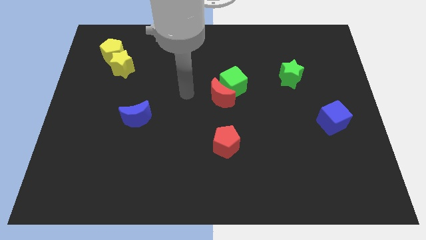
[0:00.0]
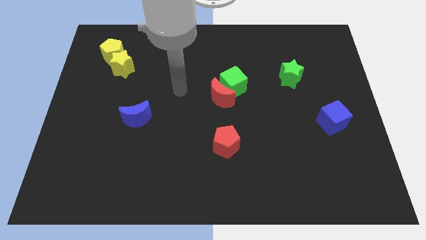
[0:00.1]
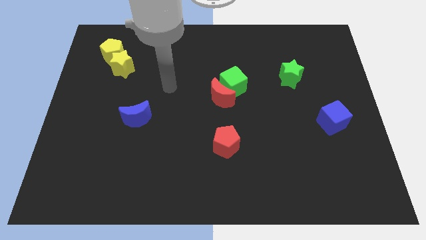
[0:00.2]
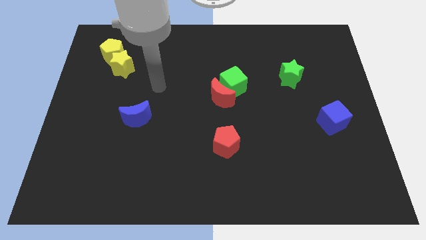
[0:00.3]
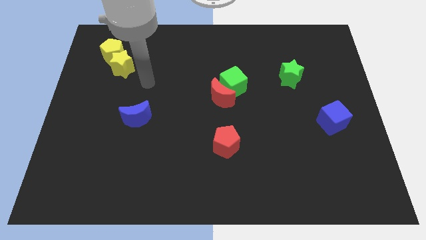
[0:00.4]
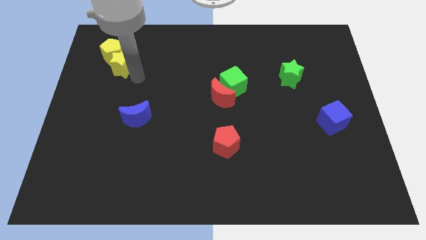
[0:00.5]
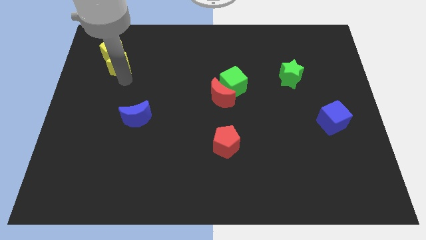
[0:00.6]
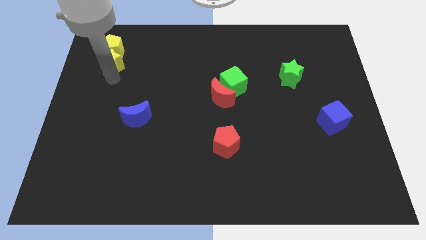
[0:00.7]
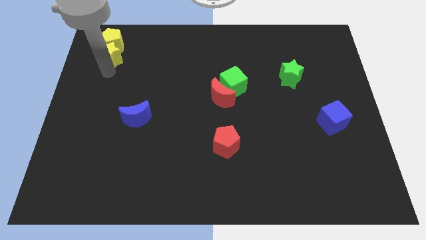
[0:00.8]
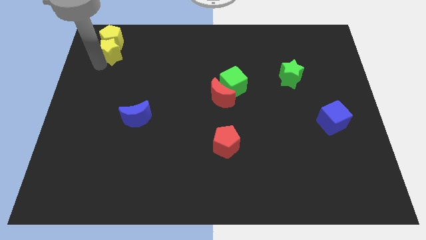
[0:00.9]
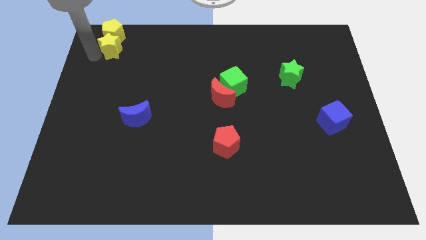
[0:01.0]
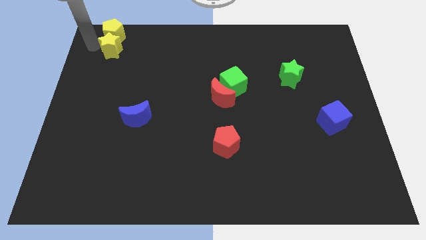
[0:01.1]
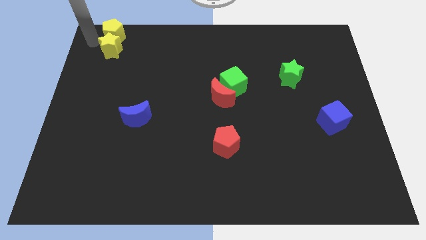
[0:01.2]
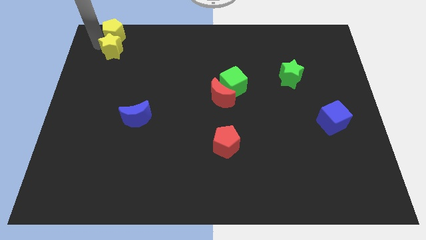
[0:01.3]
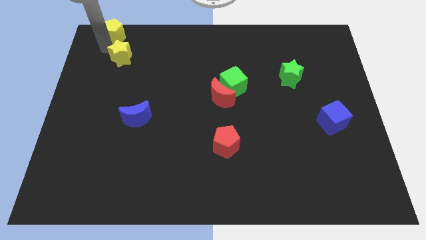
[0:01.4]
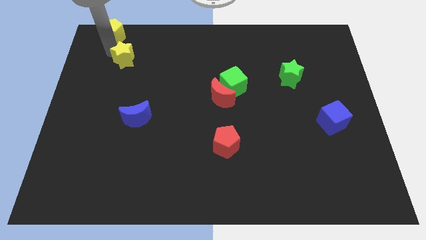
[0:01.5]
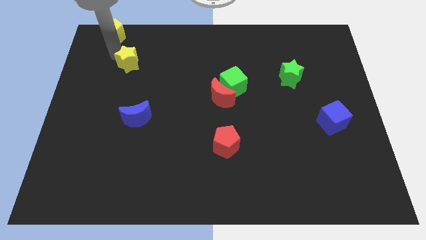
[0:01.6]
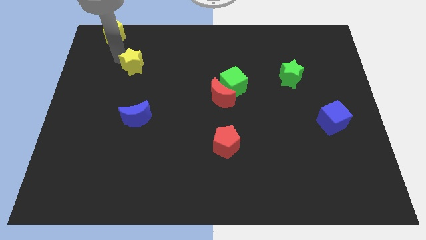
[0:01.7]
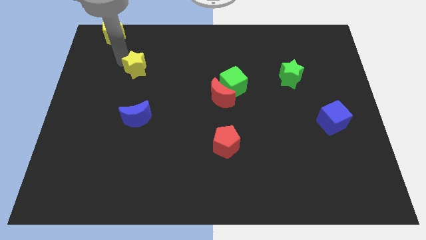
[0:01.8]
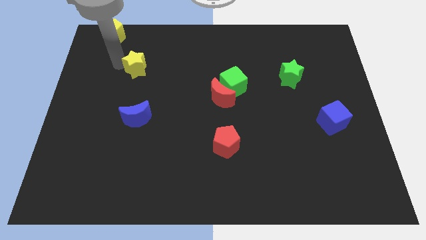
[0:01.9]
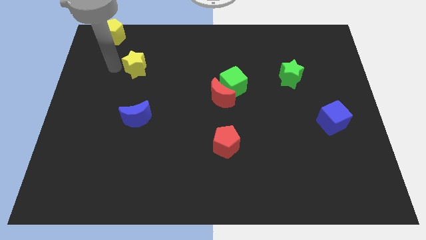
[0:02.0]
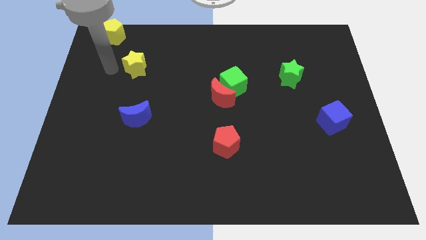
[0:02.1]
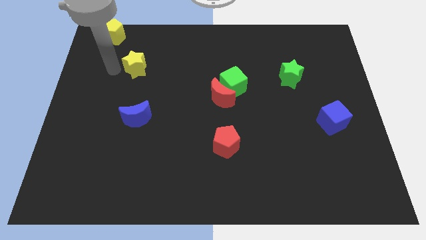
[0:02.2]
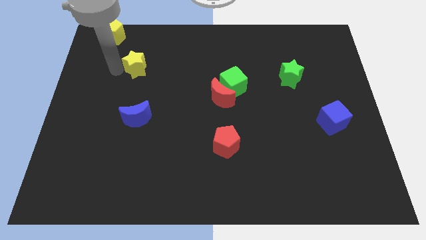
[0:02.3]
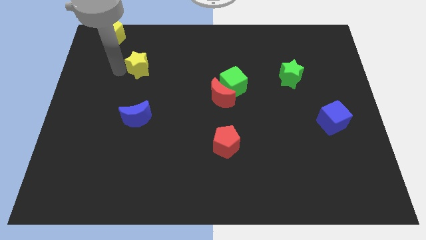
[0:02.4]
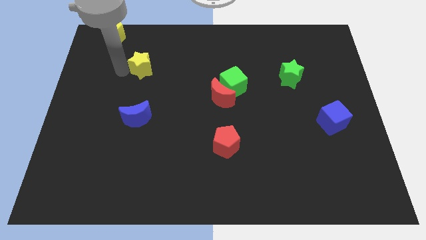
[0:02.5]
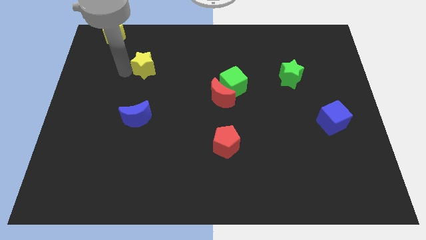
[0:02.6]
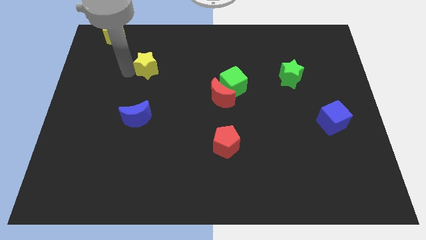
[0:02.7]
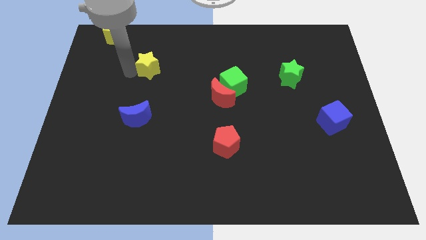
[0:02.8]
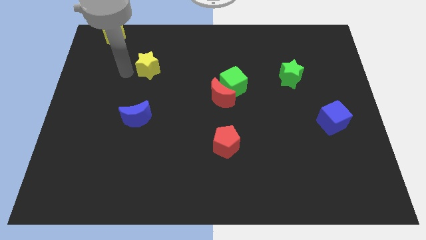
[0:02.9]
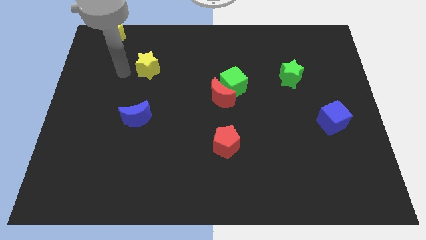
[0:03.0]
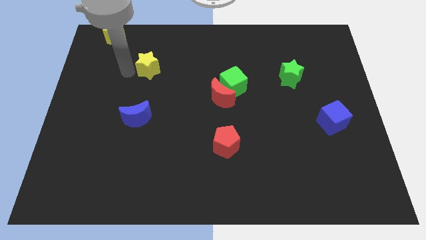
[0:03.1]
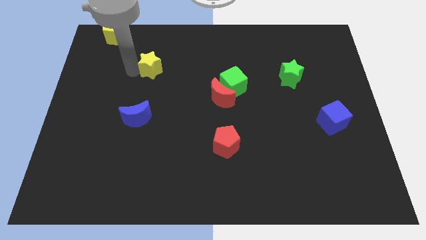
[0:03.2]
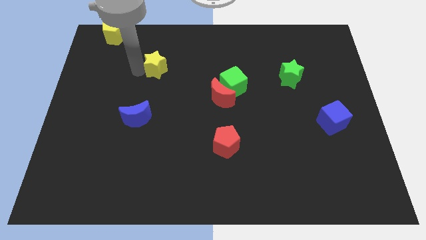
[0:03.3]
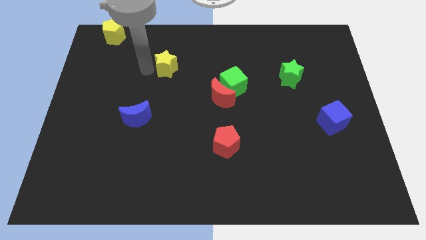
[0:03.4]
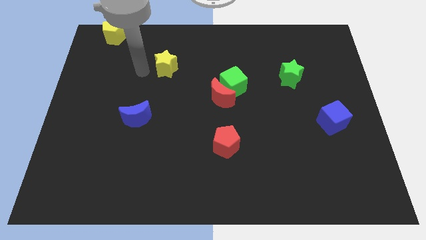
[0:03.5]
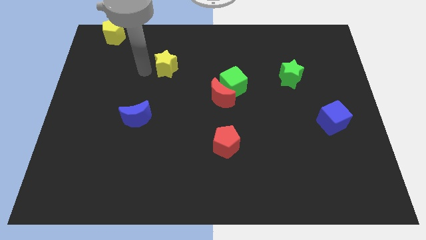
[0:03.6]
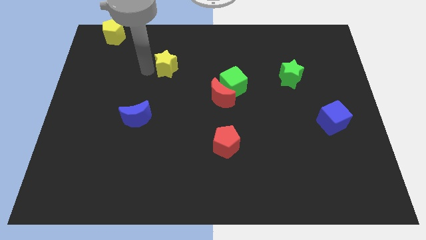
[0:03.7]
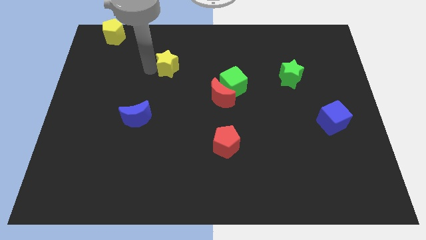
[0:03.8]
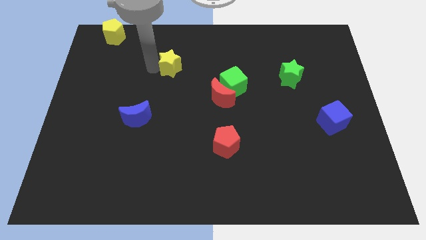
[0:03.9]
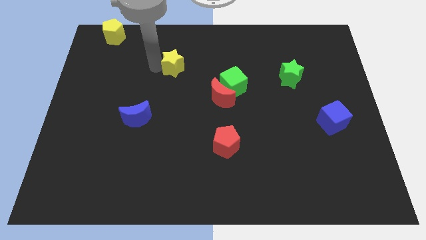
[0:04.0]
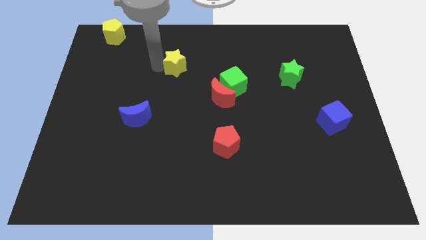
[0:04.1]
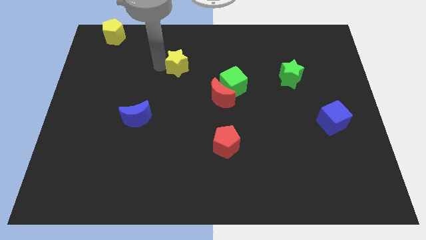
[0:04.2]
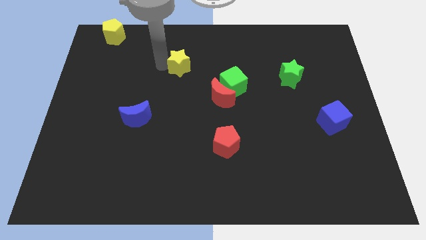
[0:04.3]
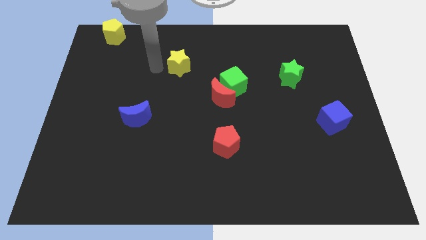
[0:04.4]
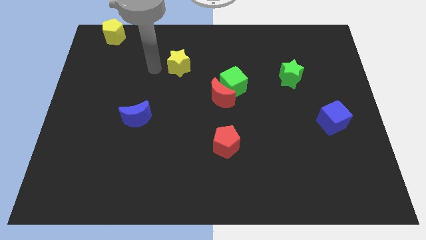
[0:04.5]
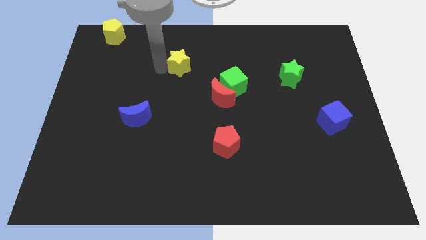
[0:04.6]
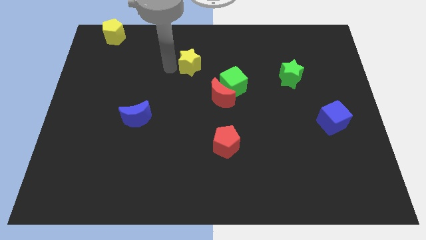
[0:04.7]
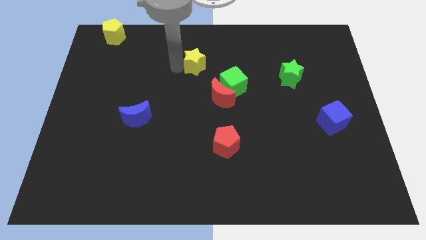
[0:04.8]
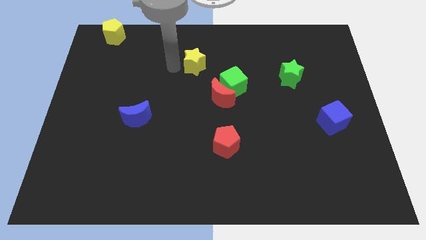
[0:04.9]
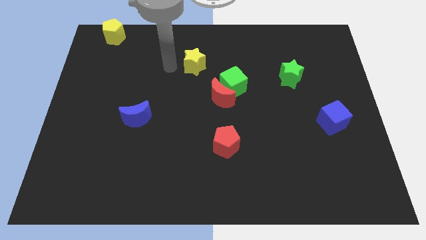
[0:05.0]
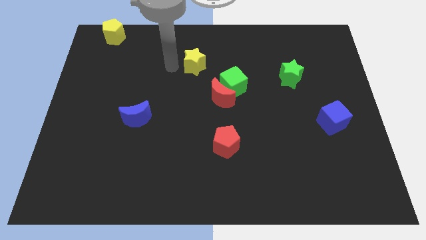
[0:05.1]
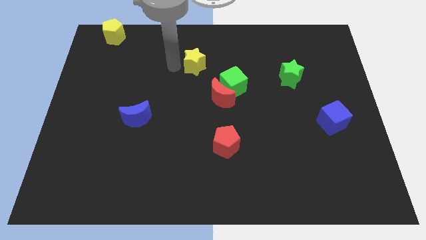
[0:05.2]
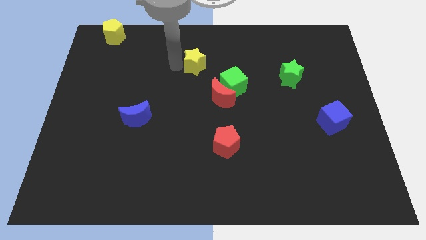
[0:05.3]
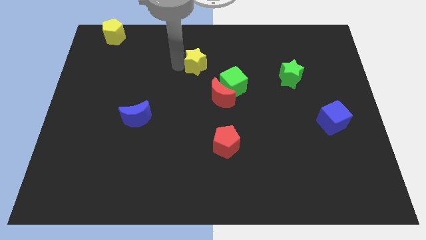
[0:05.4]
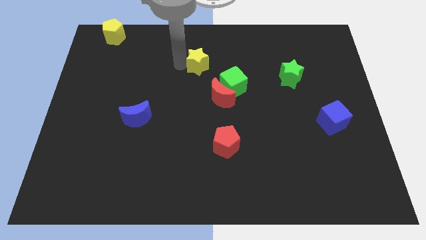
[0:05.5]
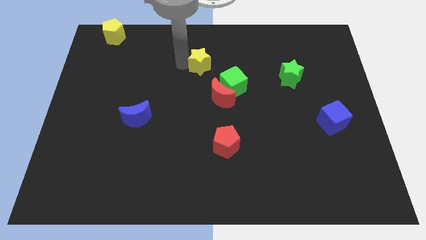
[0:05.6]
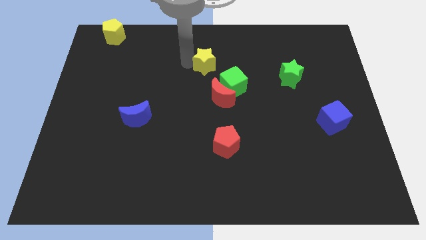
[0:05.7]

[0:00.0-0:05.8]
slide the yellow star to the right

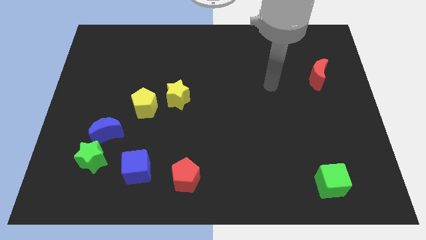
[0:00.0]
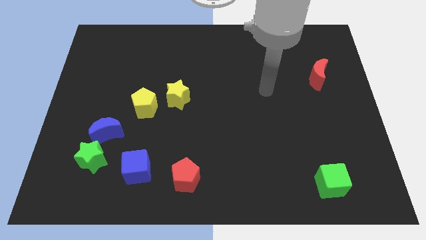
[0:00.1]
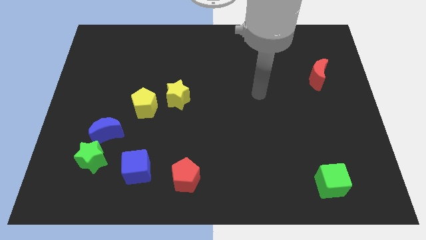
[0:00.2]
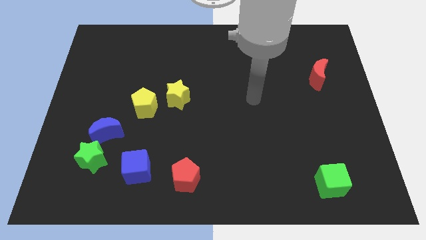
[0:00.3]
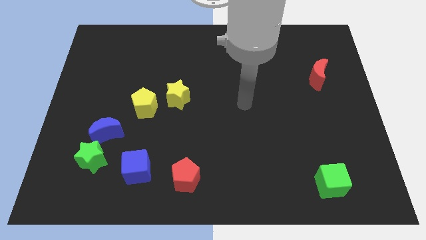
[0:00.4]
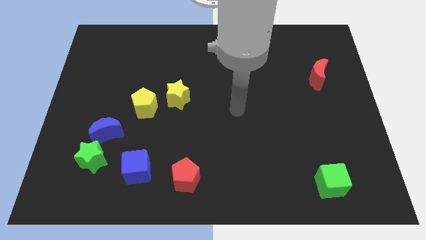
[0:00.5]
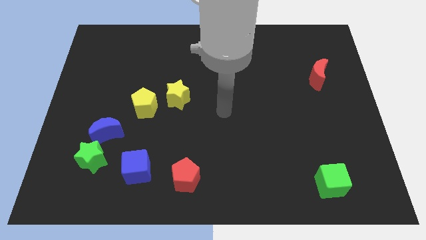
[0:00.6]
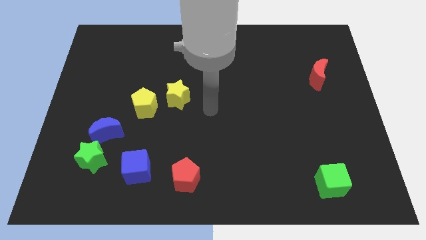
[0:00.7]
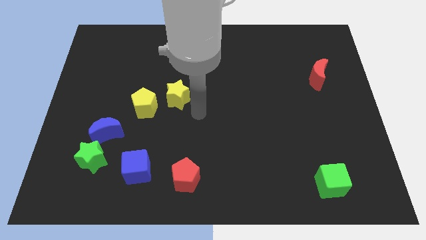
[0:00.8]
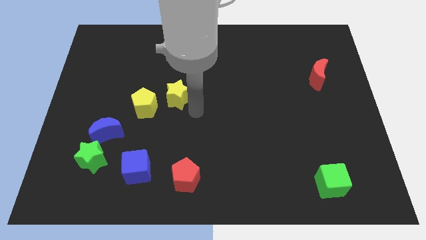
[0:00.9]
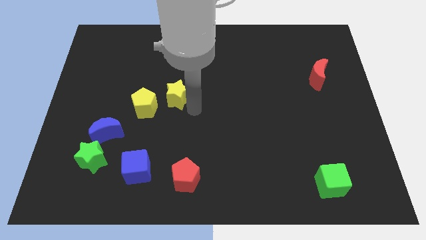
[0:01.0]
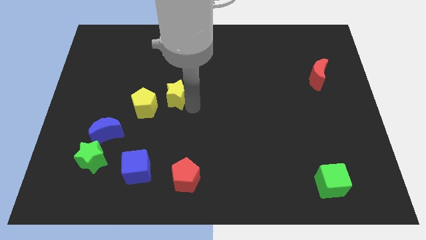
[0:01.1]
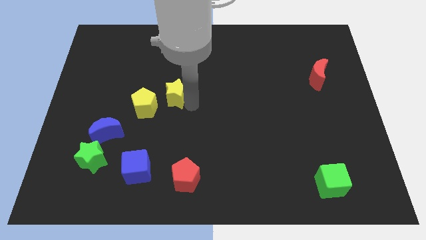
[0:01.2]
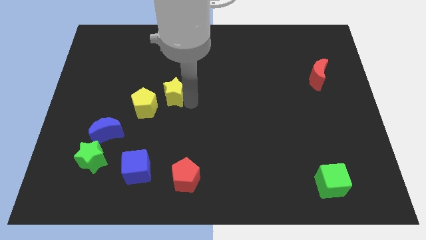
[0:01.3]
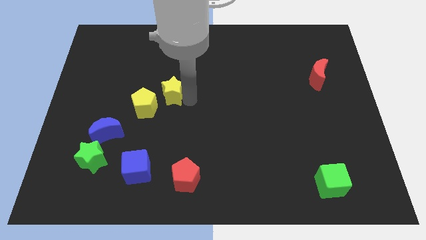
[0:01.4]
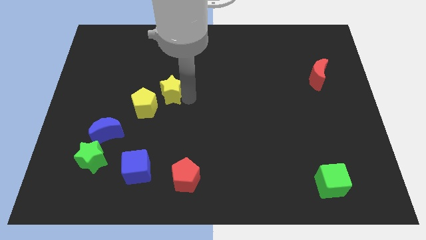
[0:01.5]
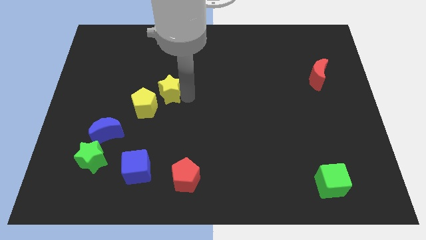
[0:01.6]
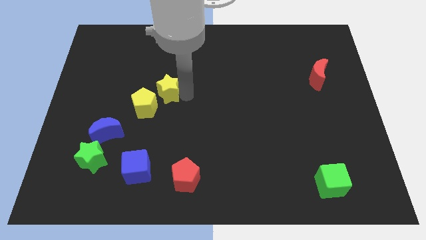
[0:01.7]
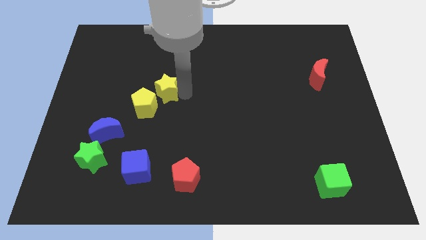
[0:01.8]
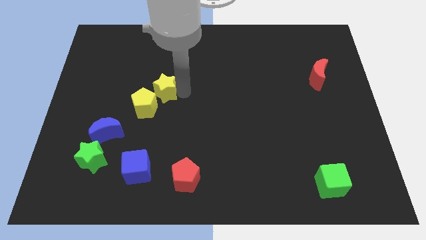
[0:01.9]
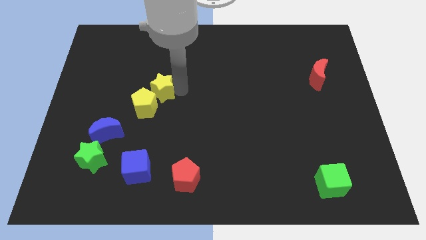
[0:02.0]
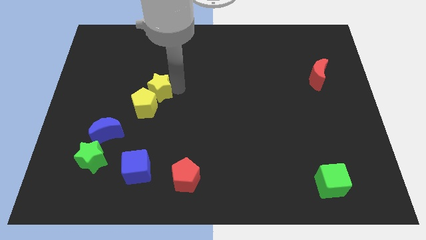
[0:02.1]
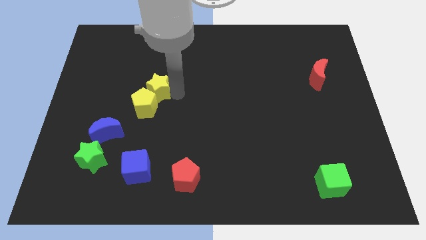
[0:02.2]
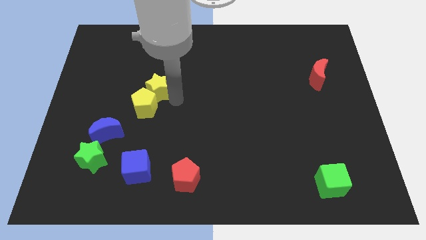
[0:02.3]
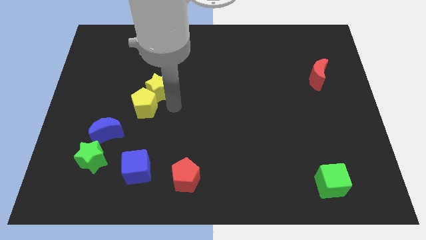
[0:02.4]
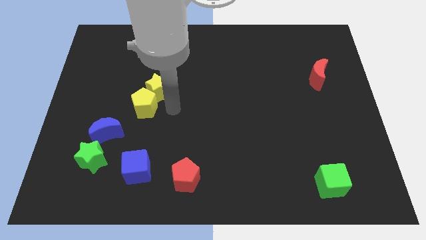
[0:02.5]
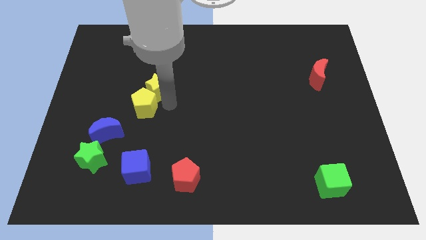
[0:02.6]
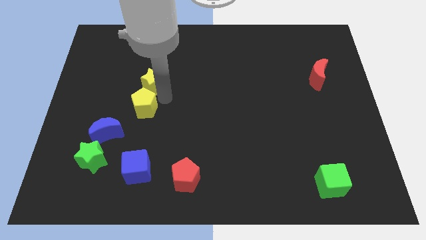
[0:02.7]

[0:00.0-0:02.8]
slide the yellow star diagonally up and left a bit
